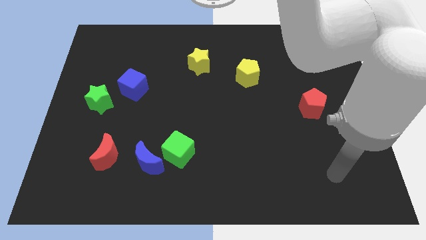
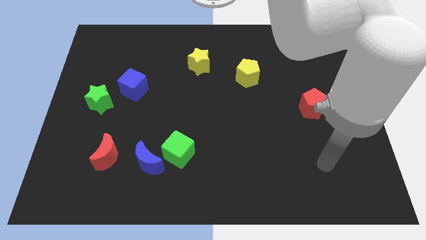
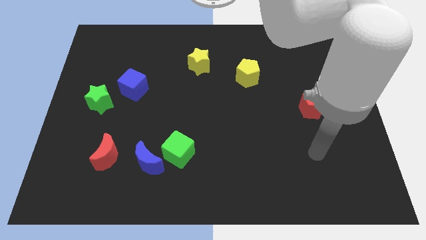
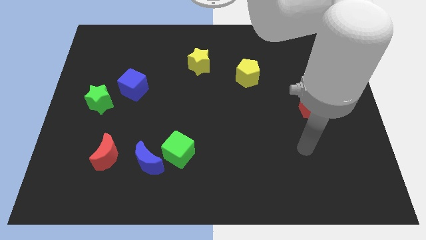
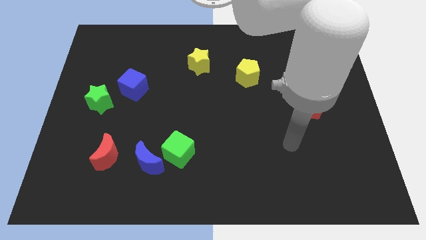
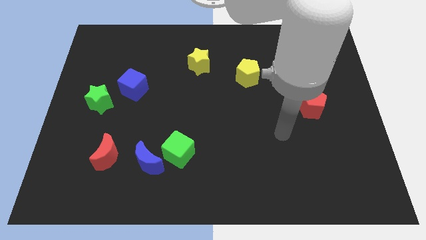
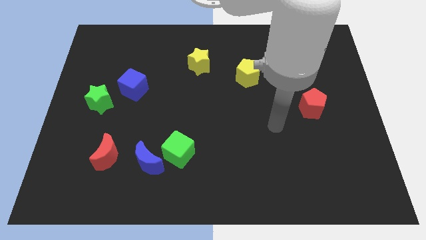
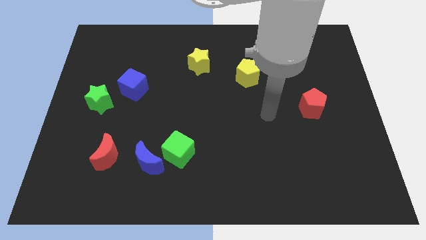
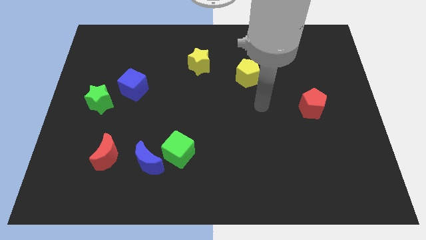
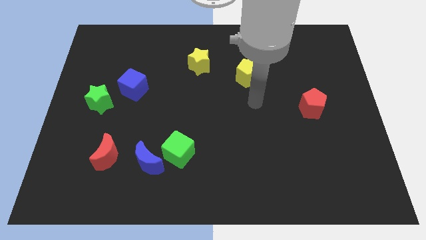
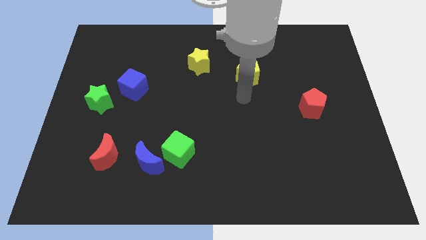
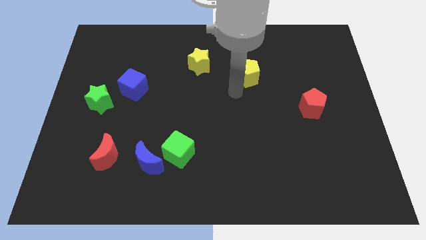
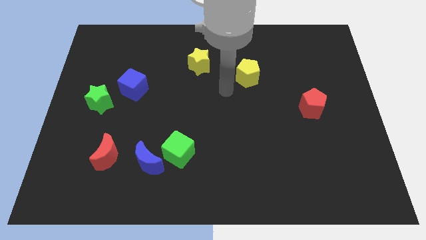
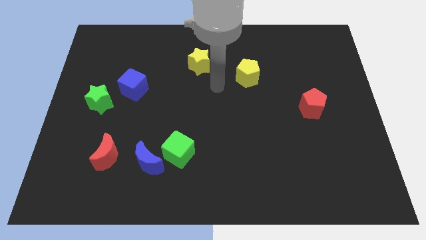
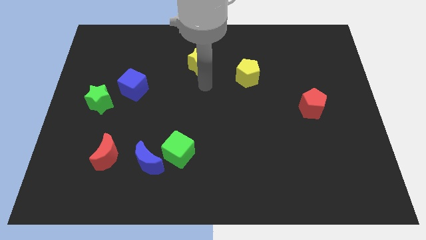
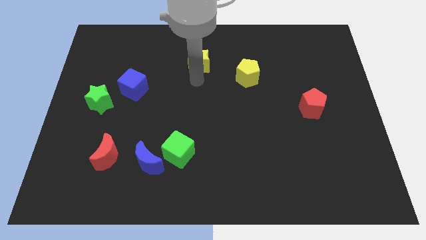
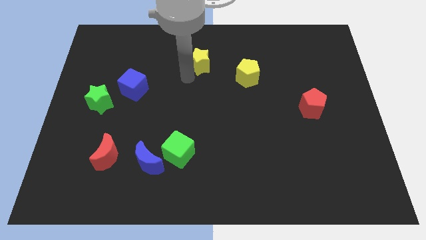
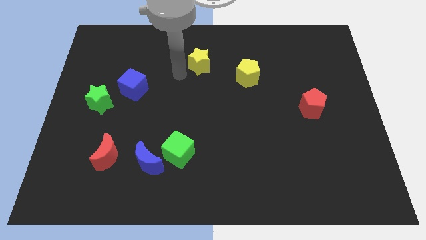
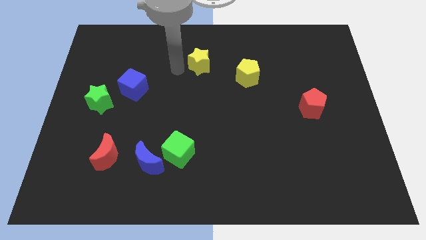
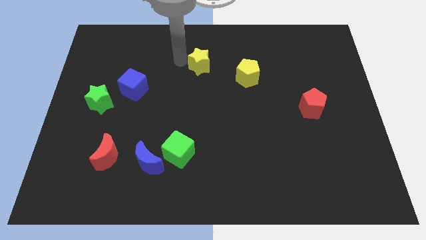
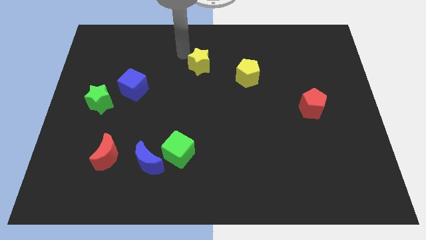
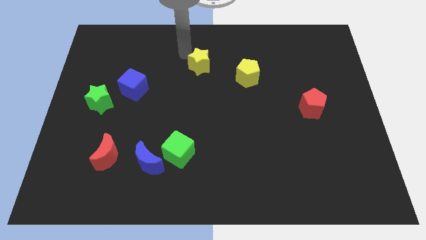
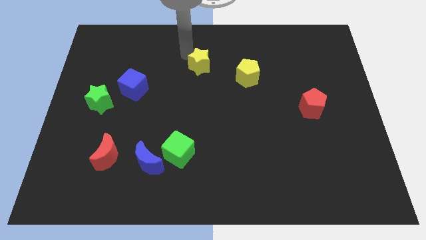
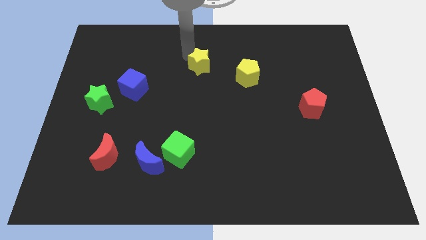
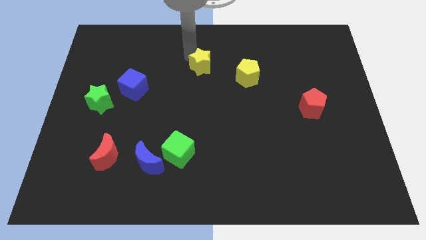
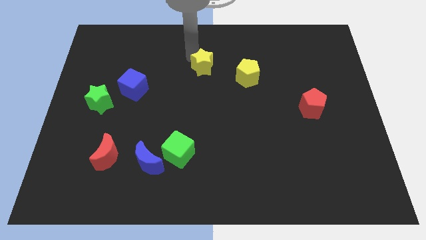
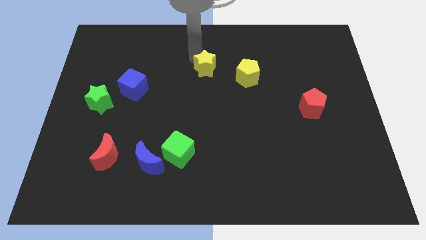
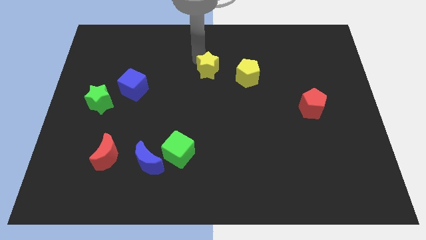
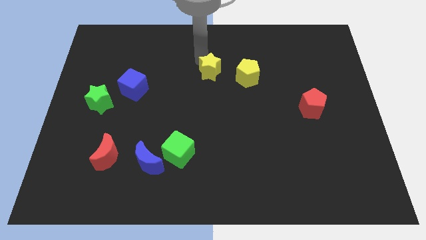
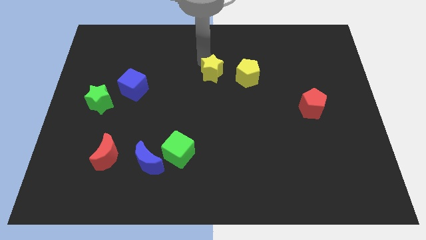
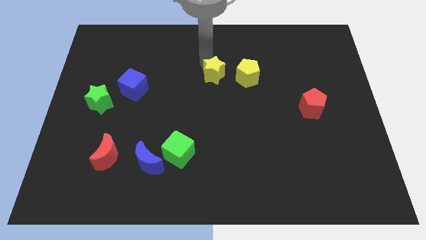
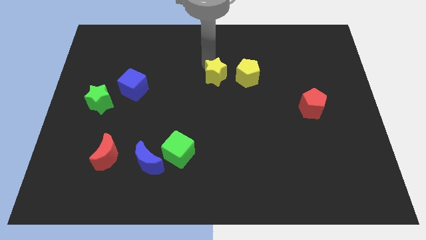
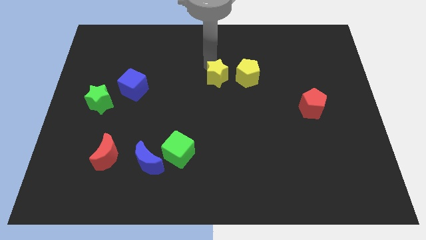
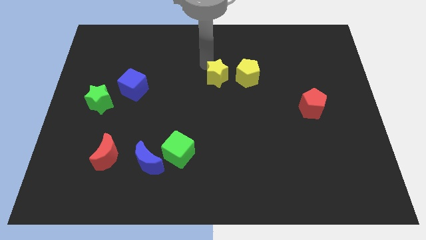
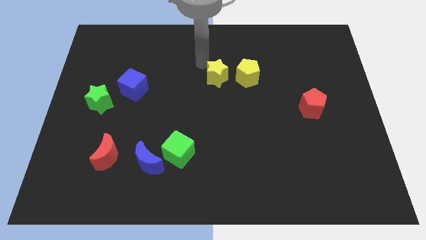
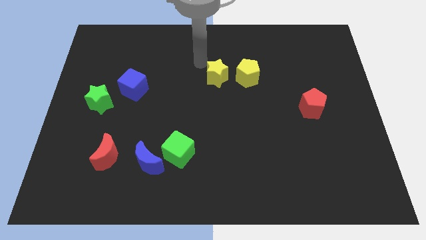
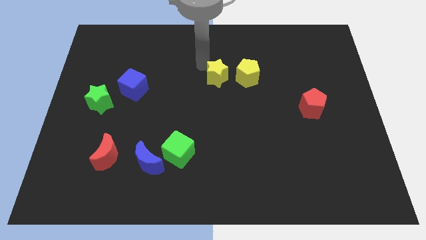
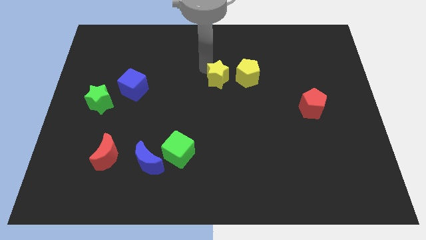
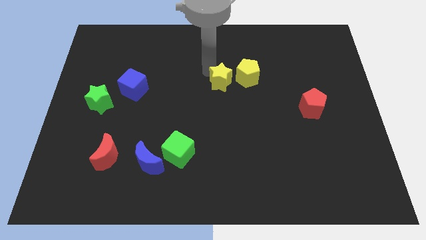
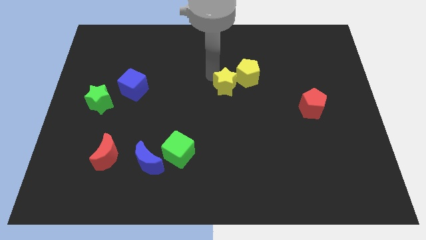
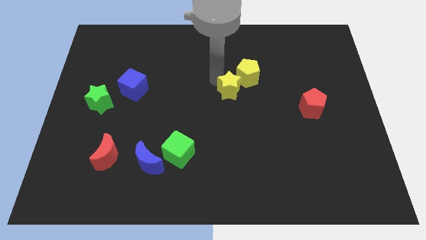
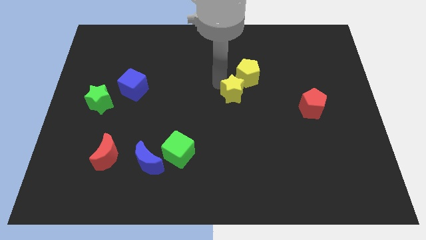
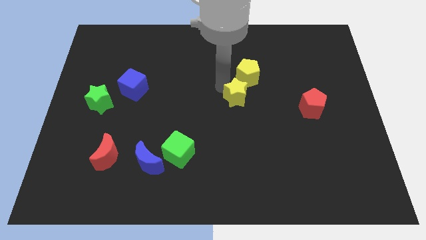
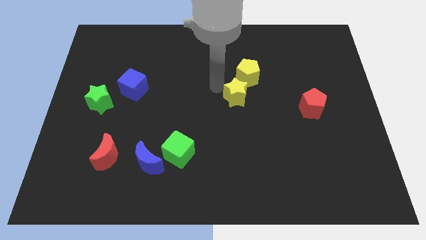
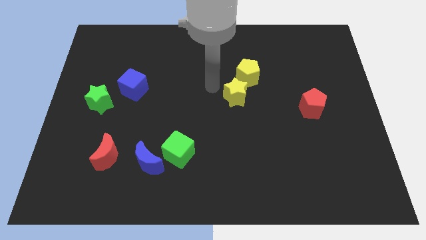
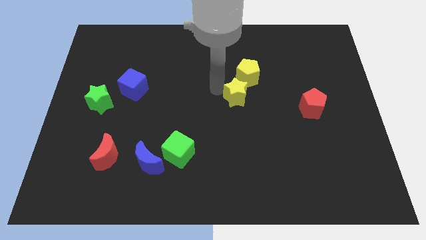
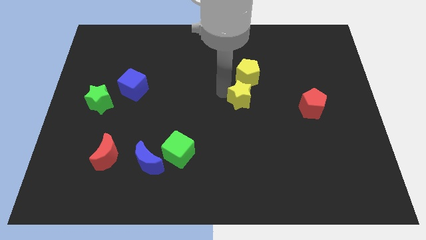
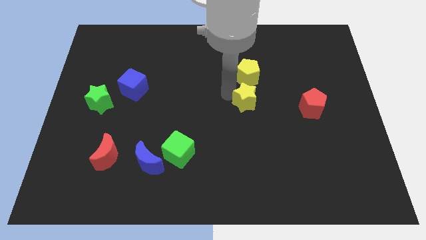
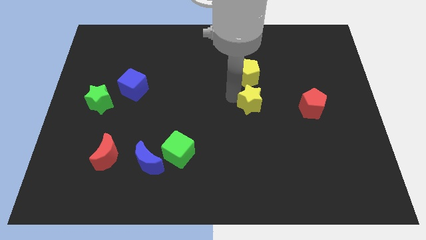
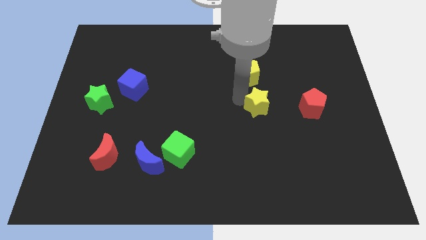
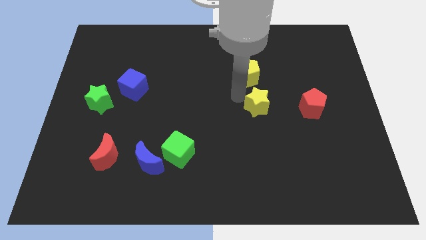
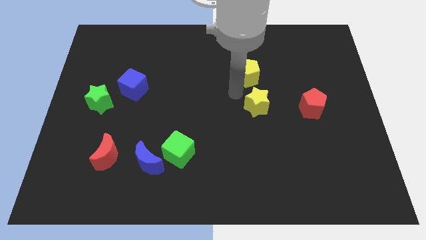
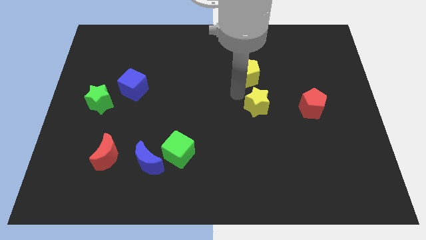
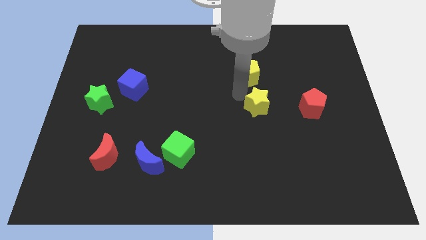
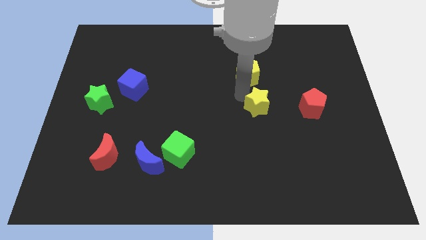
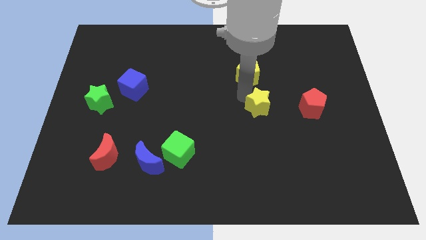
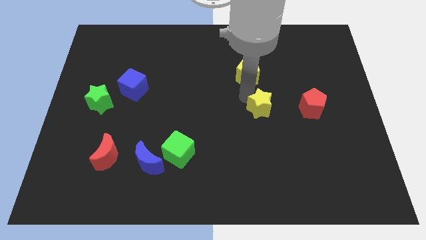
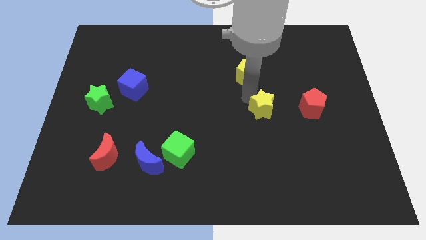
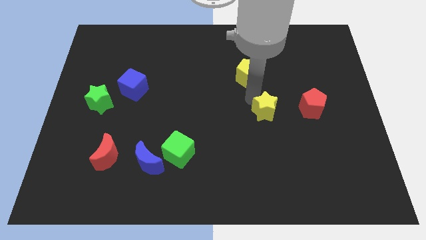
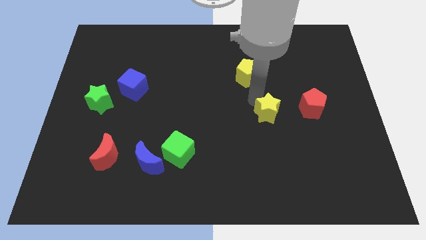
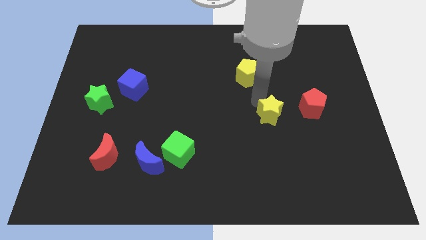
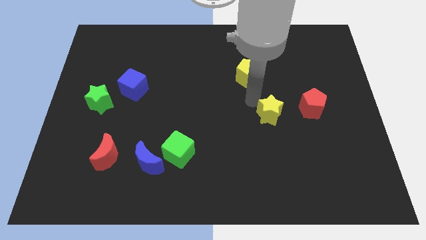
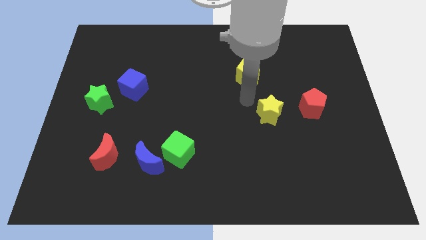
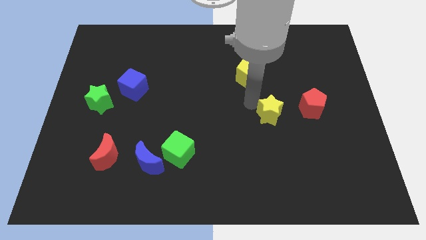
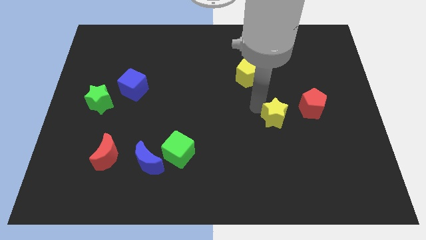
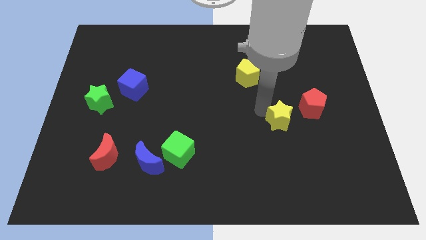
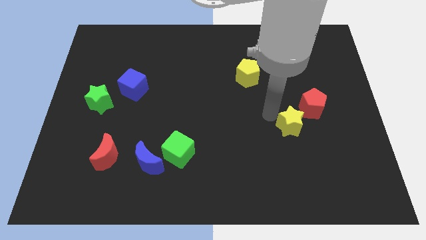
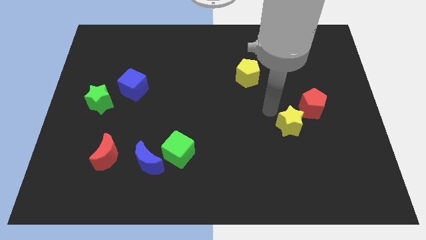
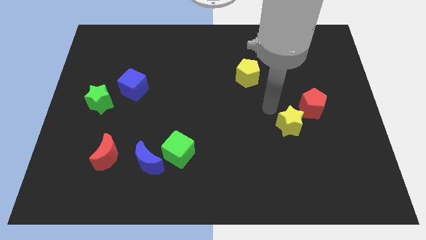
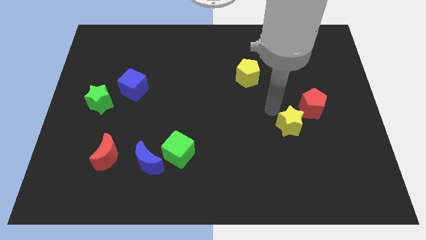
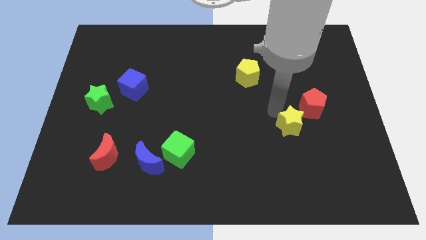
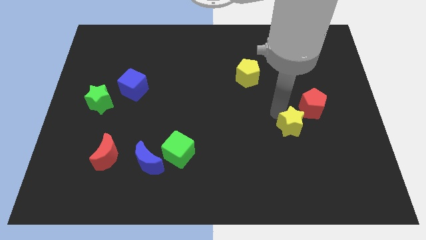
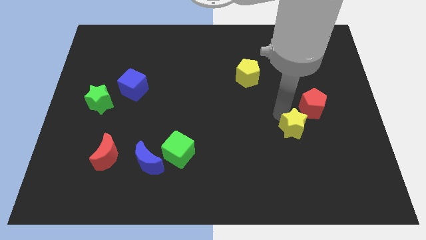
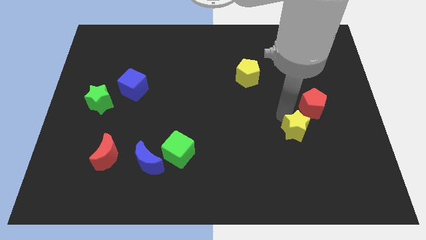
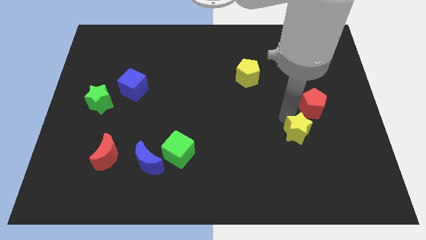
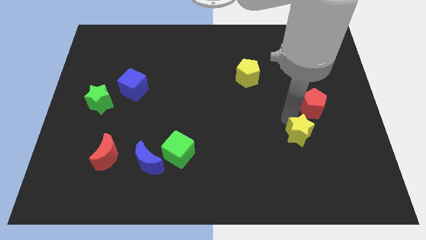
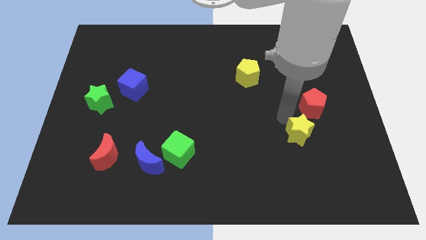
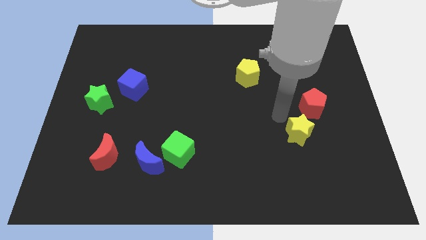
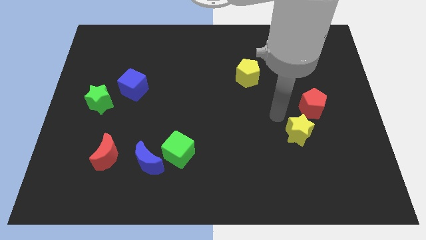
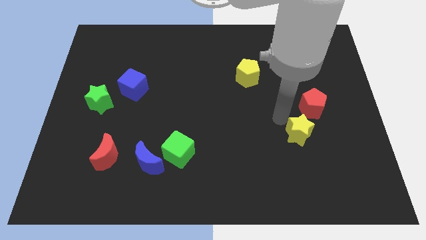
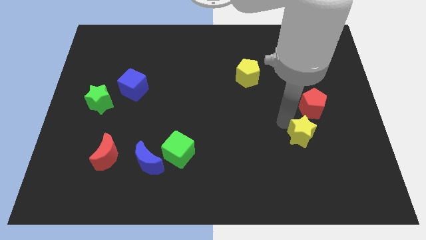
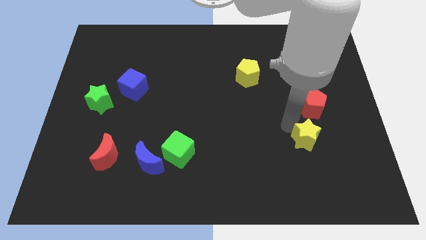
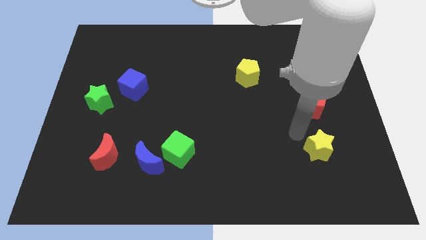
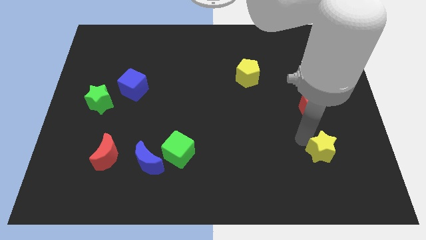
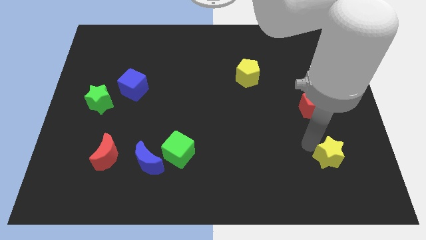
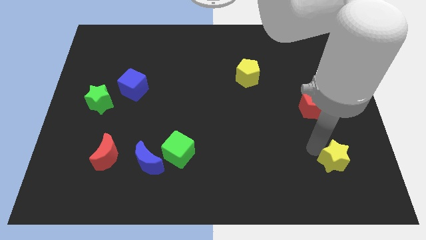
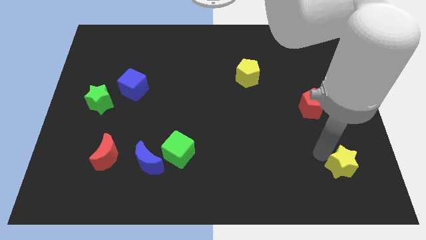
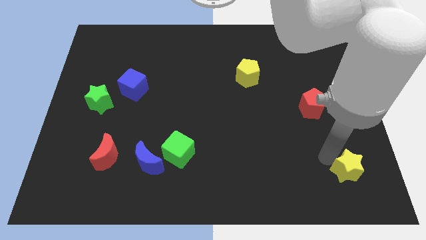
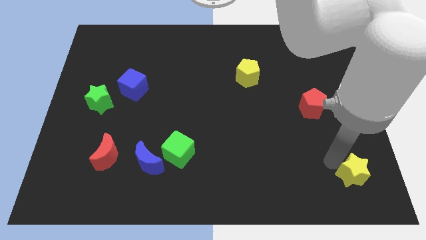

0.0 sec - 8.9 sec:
move the yellow star to the bottom right of the board
